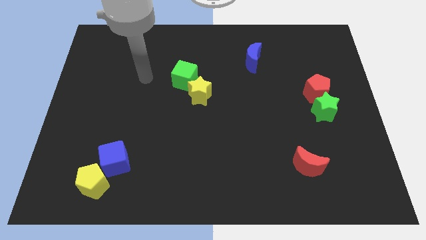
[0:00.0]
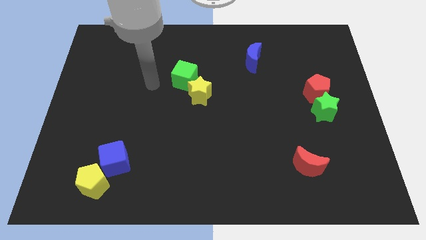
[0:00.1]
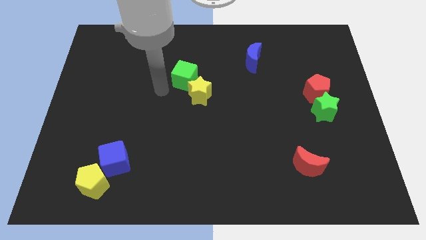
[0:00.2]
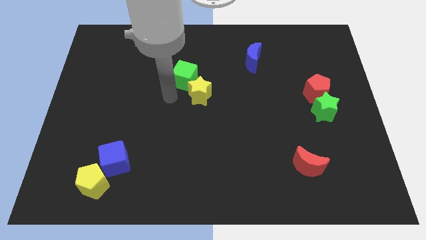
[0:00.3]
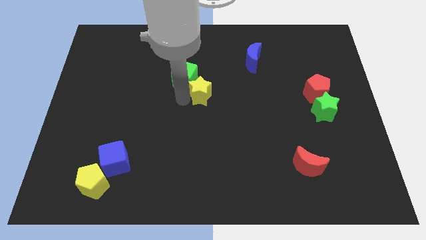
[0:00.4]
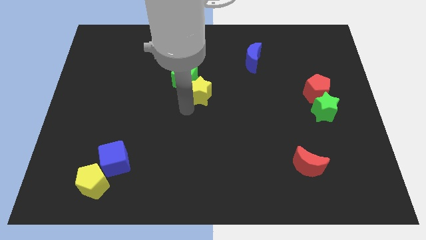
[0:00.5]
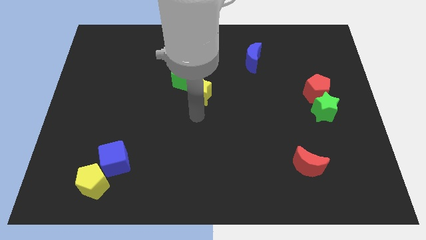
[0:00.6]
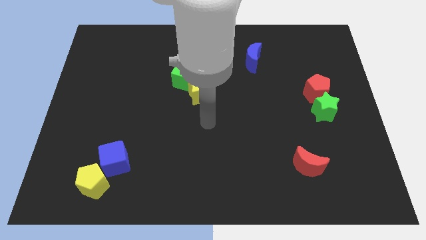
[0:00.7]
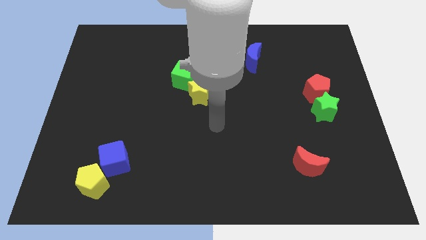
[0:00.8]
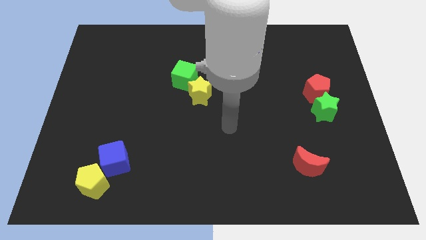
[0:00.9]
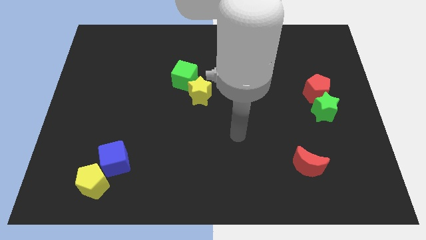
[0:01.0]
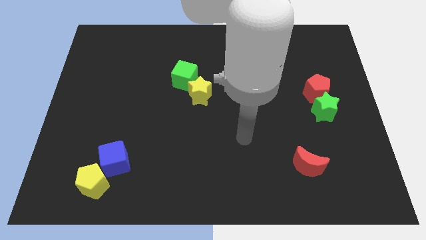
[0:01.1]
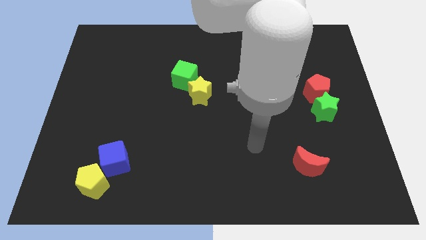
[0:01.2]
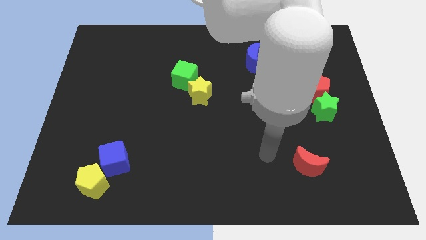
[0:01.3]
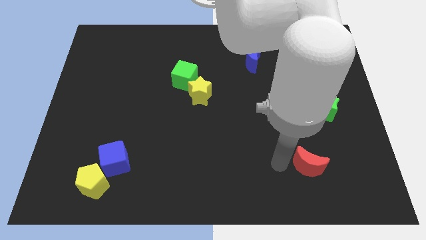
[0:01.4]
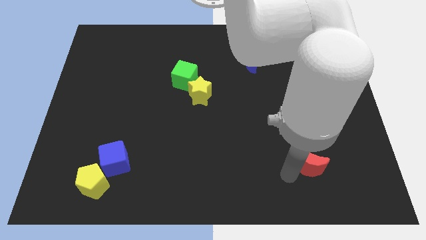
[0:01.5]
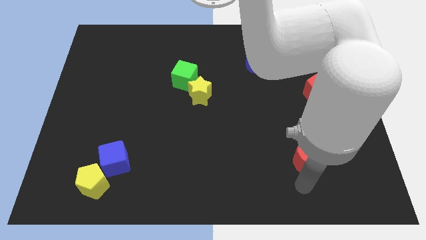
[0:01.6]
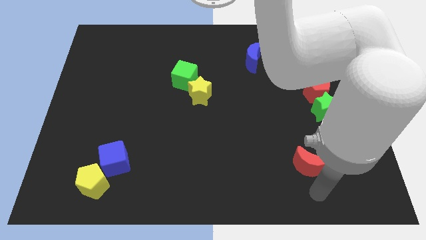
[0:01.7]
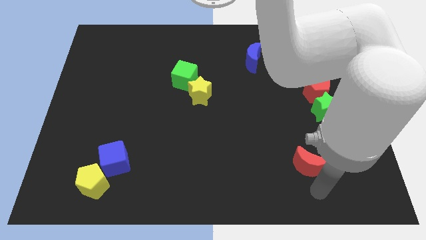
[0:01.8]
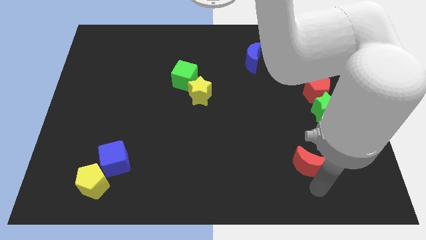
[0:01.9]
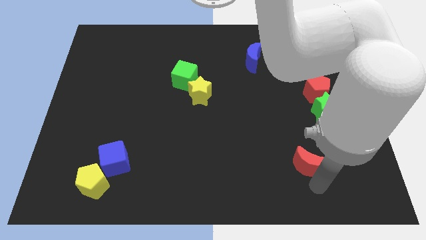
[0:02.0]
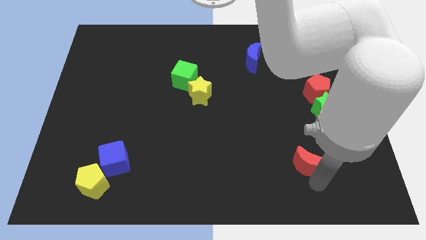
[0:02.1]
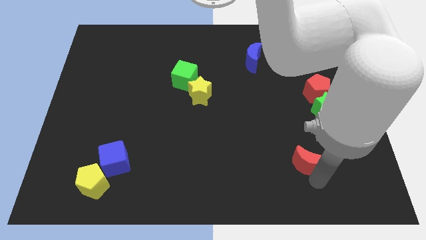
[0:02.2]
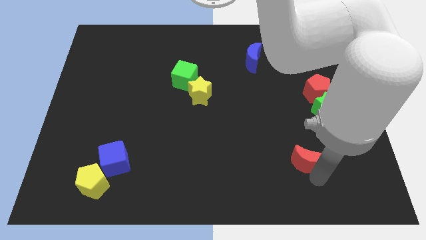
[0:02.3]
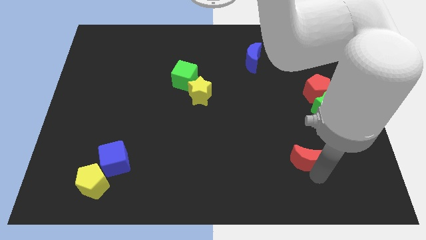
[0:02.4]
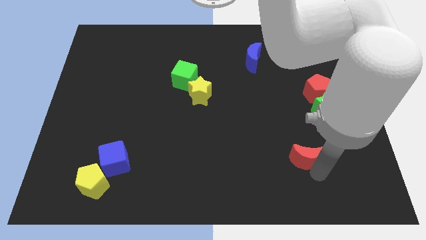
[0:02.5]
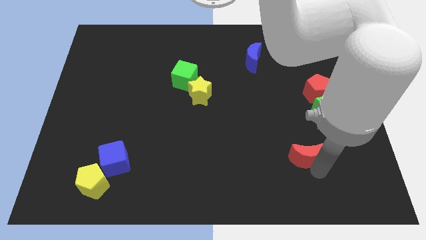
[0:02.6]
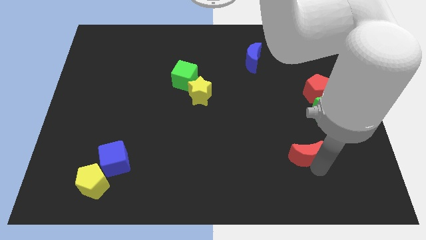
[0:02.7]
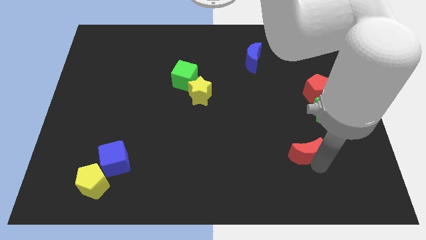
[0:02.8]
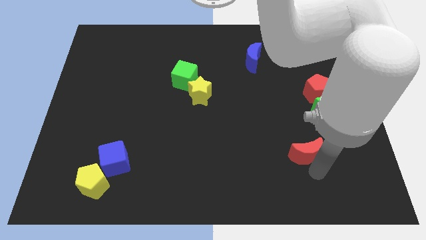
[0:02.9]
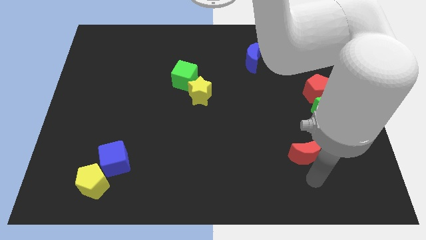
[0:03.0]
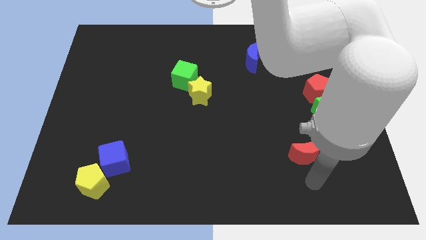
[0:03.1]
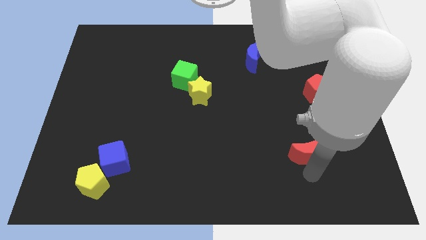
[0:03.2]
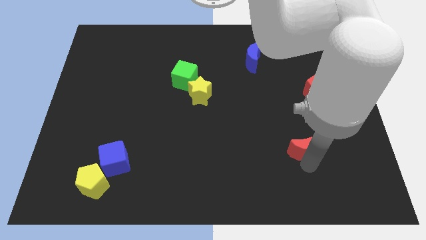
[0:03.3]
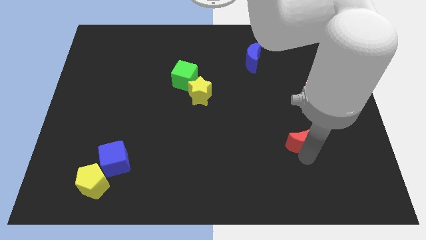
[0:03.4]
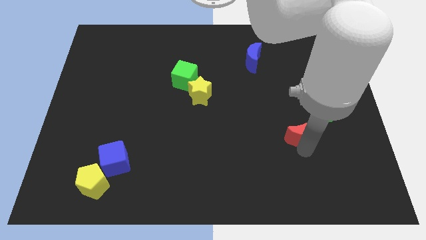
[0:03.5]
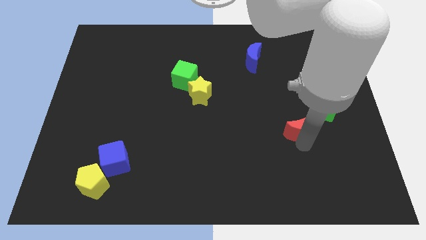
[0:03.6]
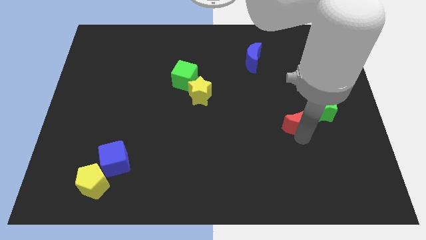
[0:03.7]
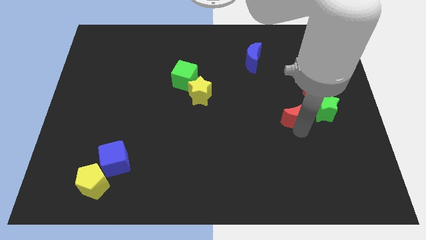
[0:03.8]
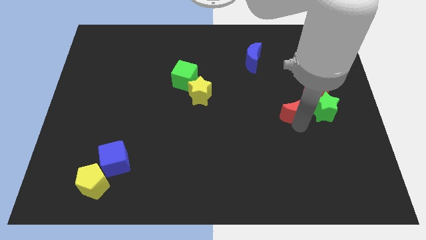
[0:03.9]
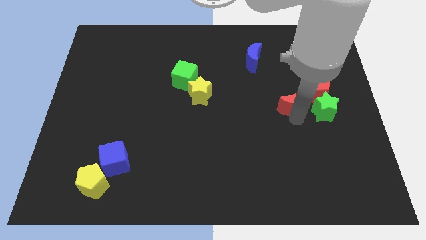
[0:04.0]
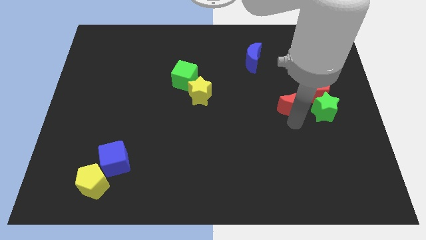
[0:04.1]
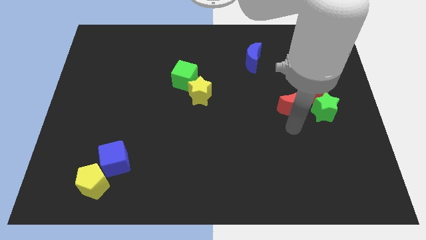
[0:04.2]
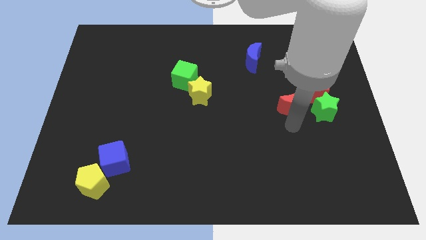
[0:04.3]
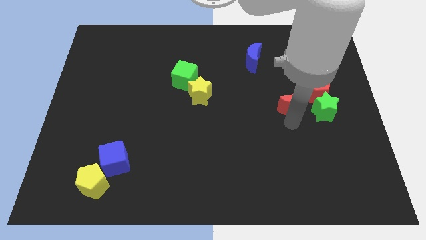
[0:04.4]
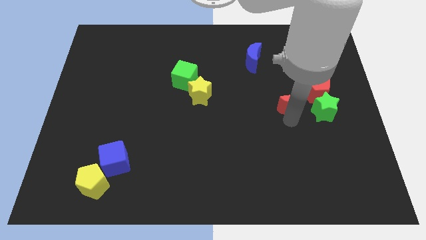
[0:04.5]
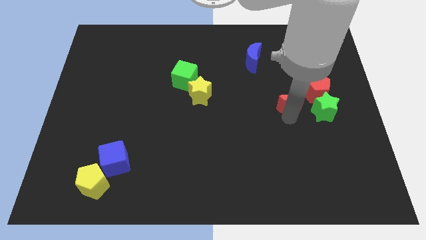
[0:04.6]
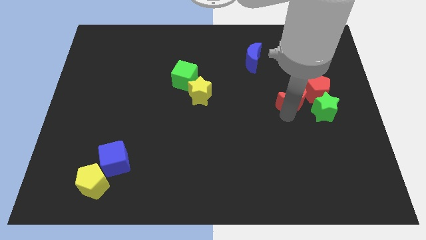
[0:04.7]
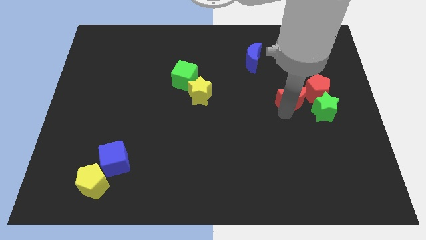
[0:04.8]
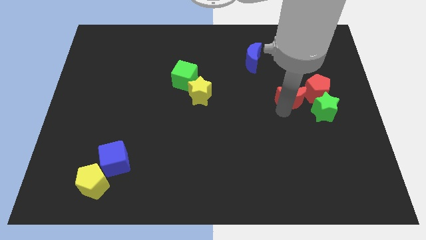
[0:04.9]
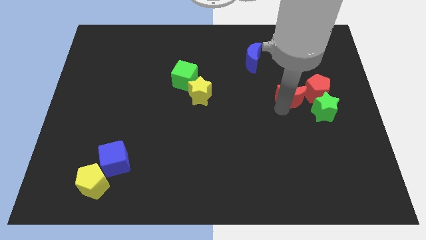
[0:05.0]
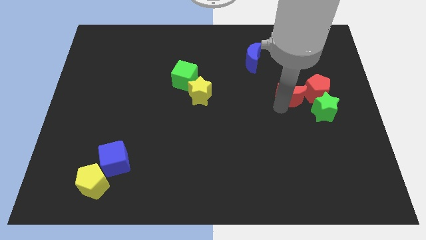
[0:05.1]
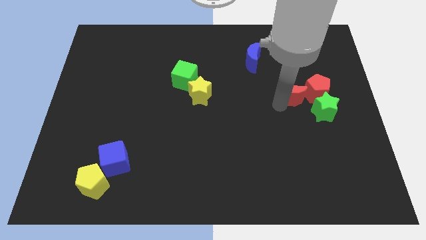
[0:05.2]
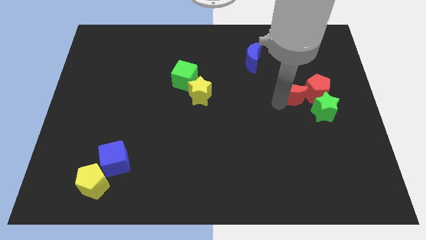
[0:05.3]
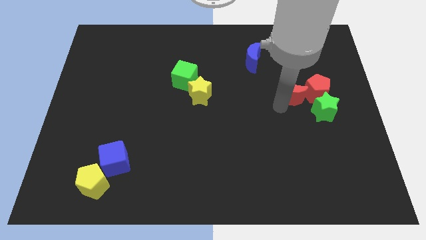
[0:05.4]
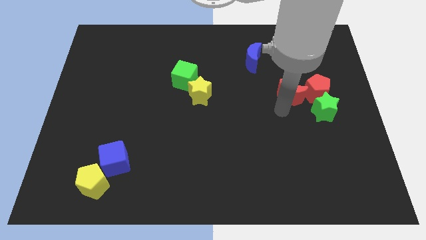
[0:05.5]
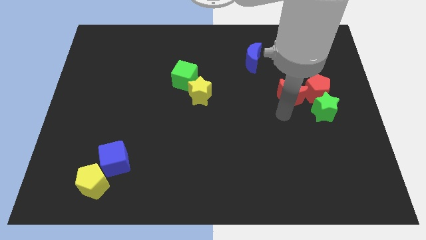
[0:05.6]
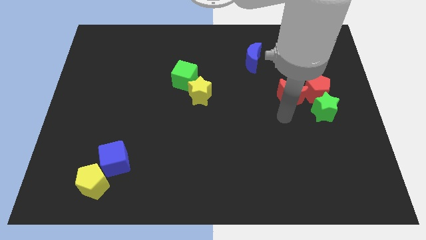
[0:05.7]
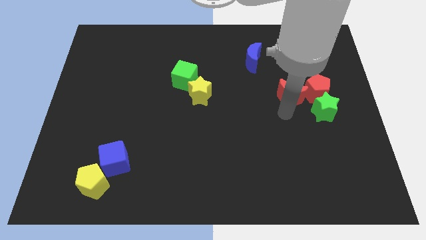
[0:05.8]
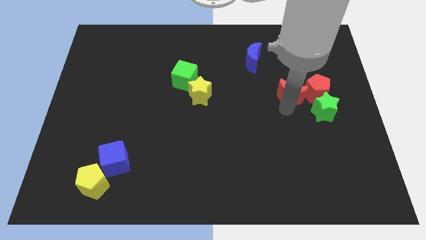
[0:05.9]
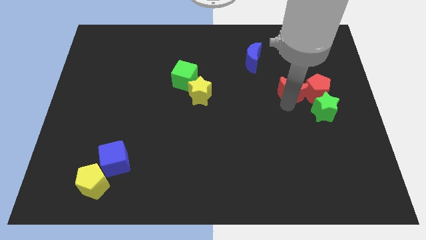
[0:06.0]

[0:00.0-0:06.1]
push the red moon up

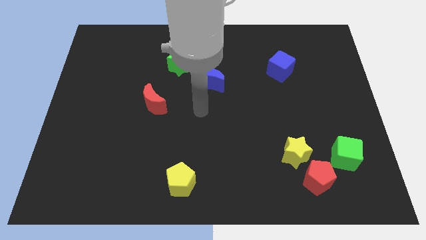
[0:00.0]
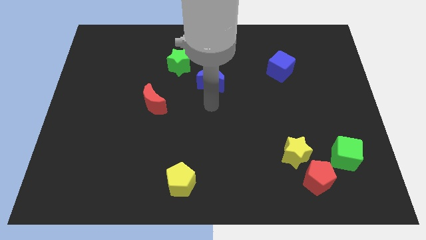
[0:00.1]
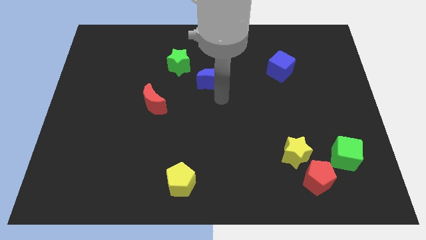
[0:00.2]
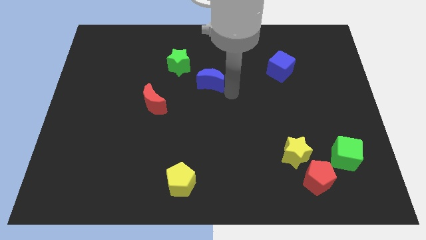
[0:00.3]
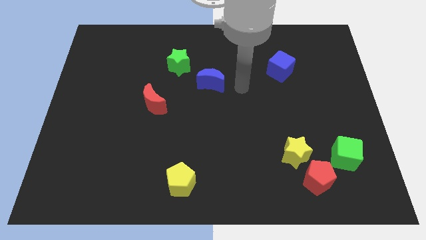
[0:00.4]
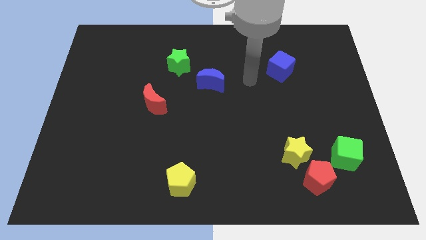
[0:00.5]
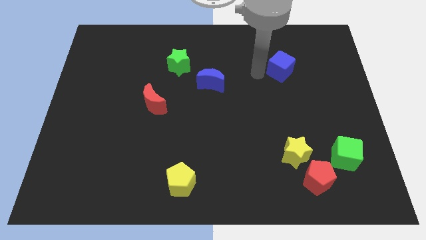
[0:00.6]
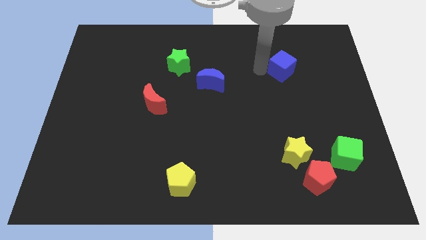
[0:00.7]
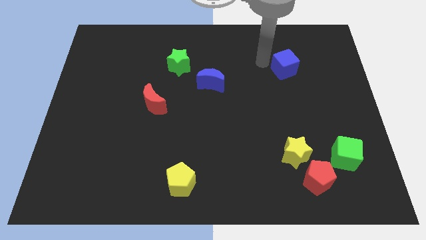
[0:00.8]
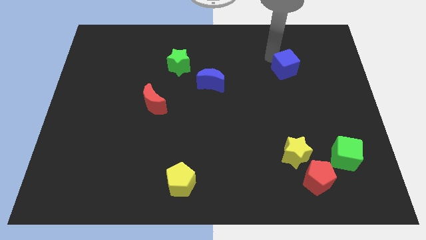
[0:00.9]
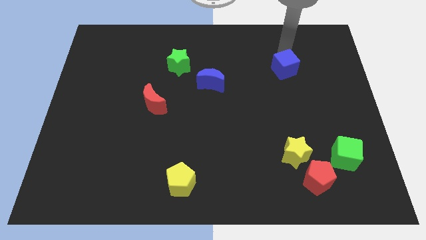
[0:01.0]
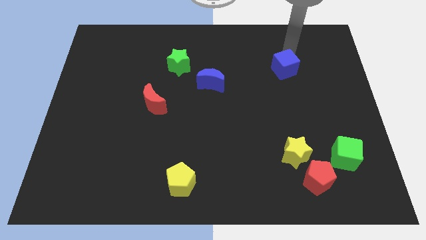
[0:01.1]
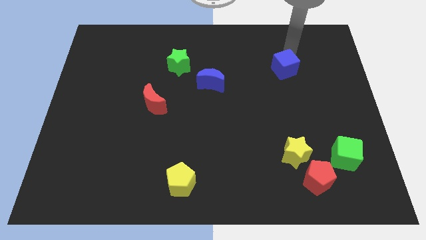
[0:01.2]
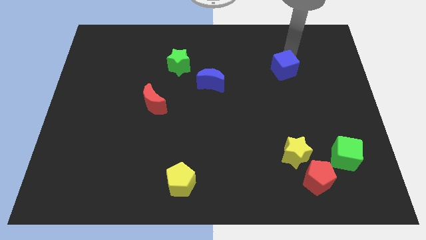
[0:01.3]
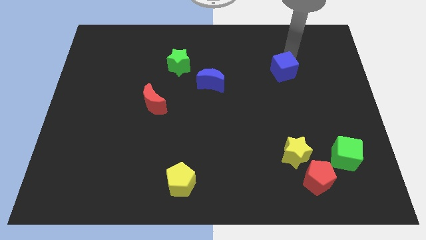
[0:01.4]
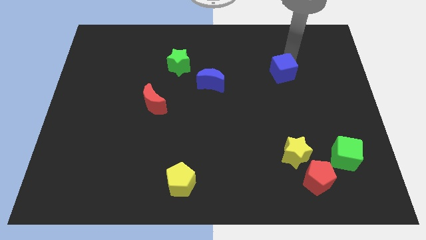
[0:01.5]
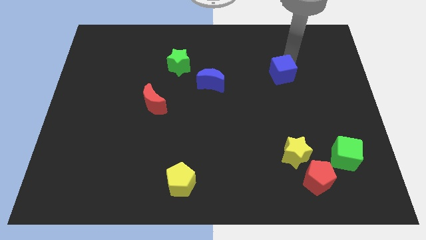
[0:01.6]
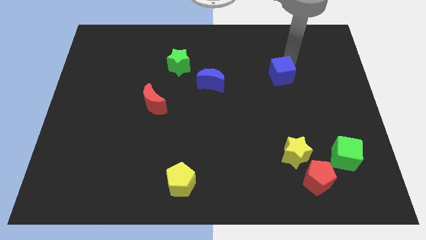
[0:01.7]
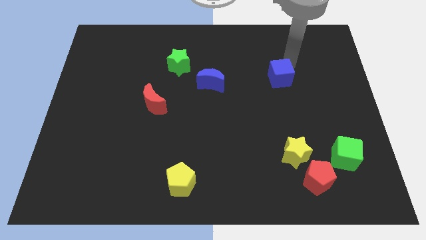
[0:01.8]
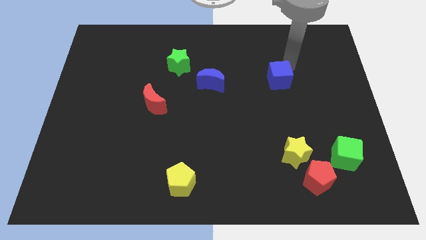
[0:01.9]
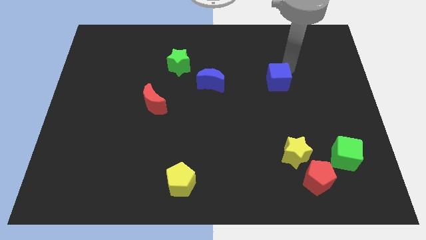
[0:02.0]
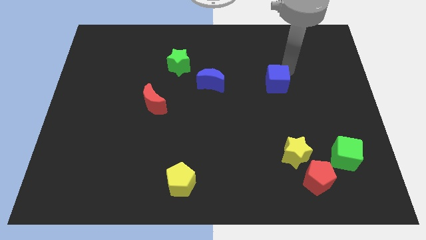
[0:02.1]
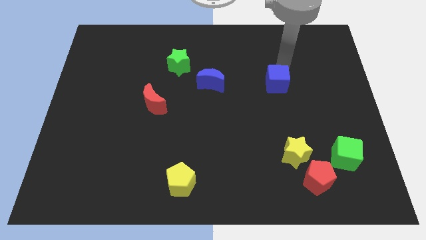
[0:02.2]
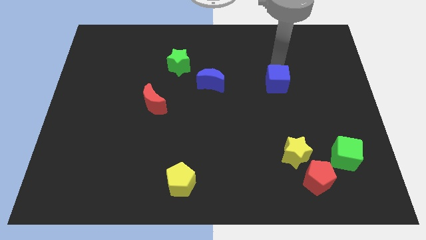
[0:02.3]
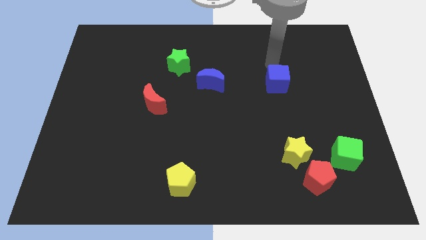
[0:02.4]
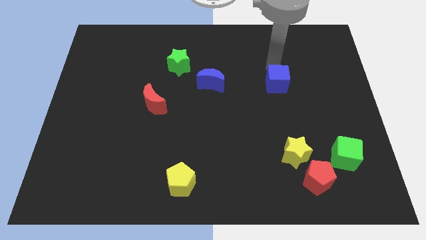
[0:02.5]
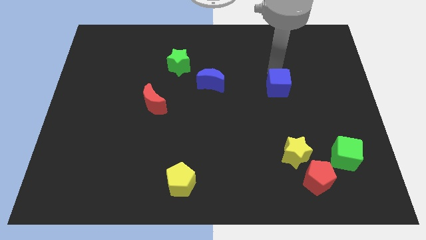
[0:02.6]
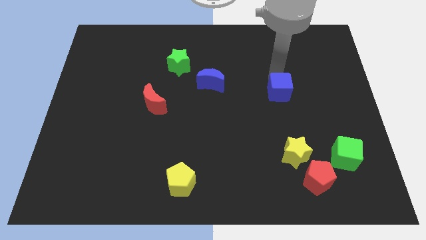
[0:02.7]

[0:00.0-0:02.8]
move the blue cube down a little bit
